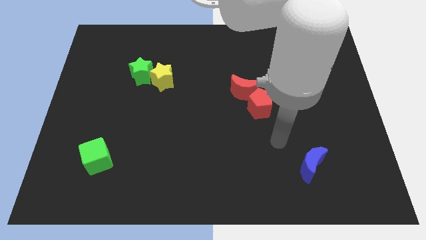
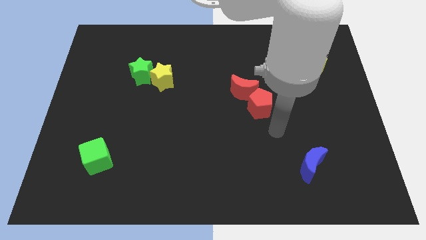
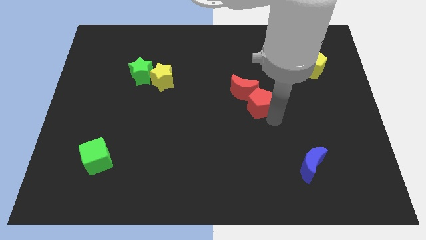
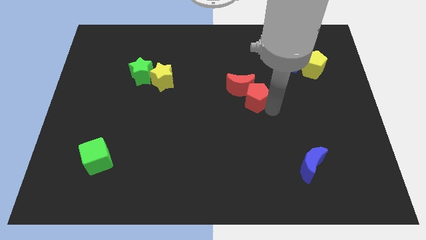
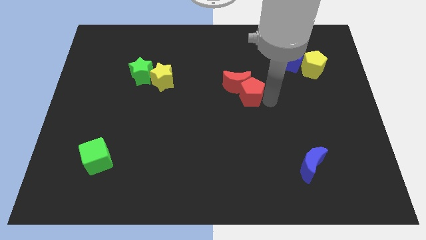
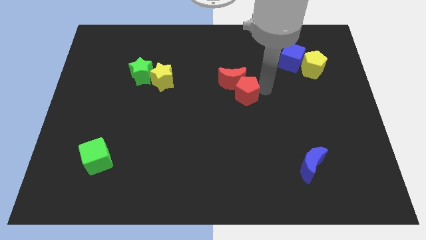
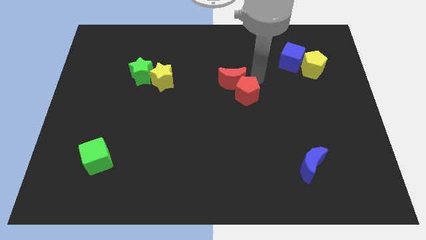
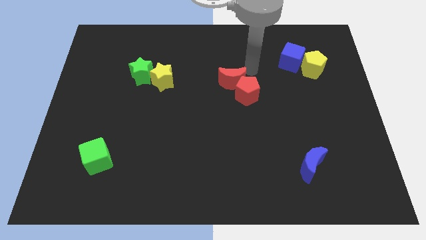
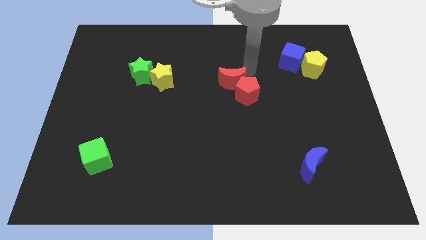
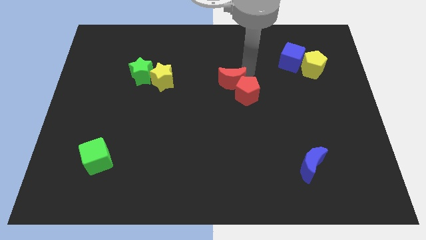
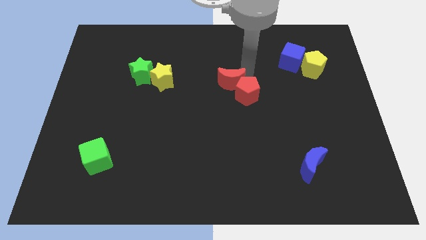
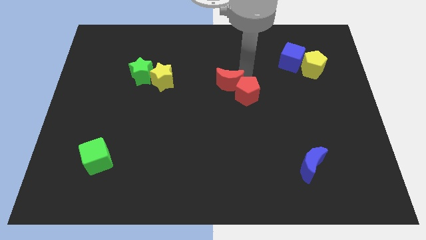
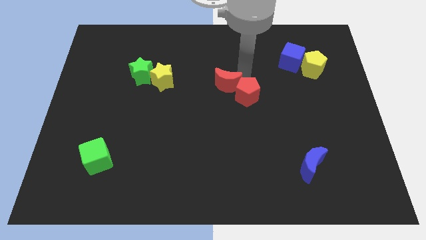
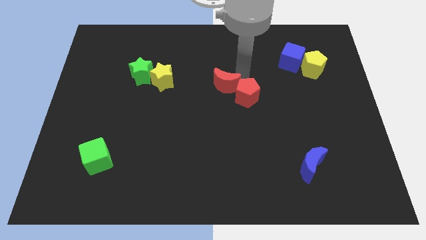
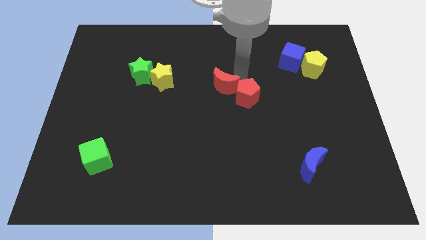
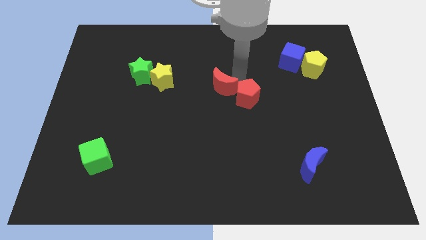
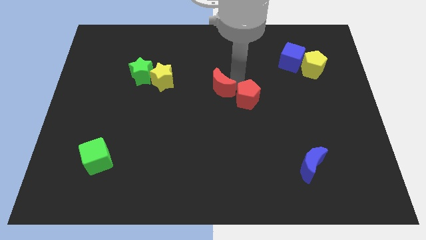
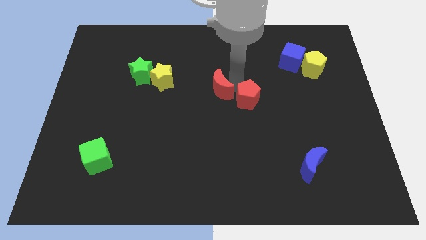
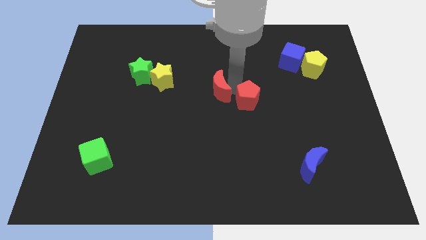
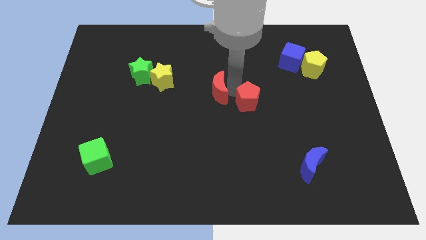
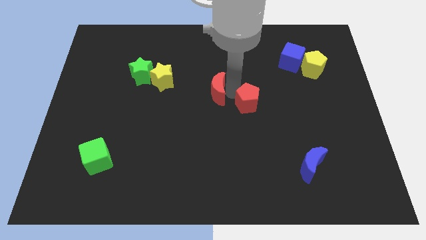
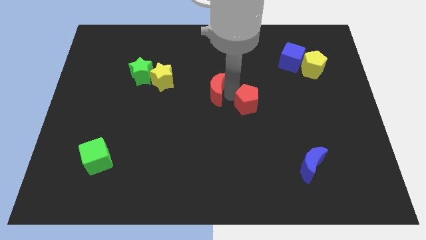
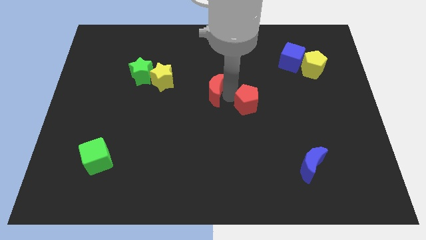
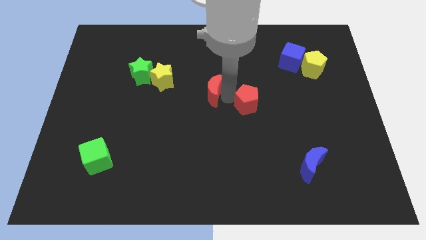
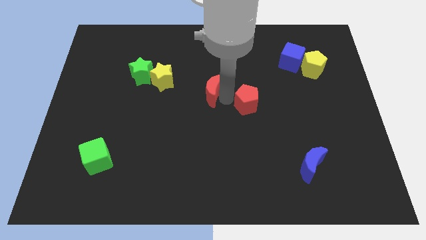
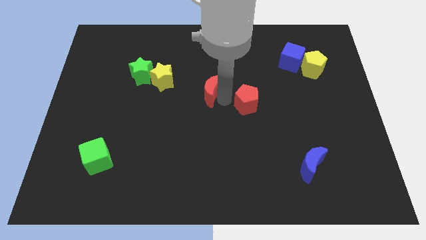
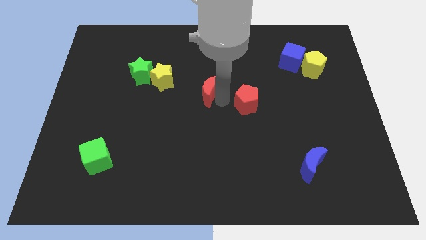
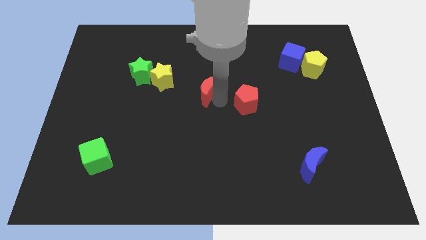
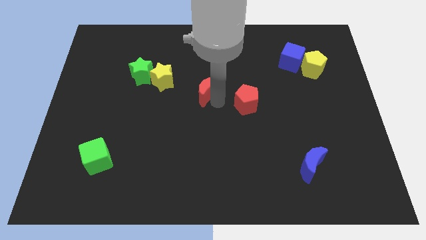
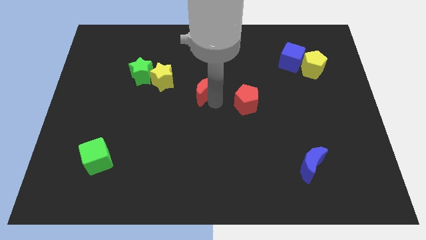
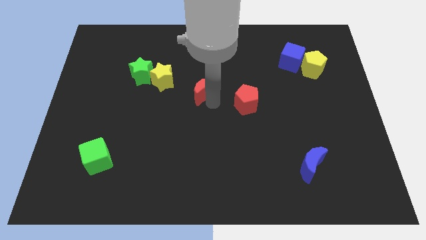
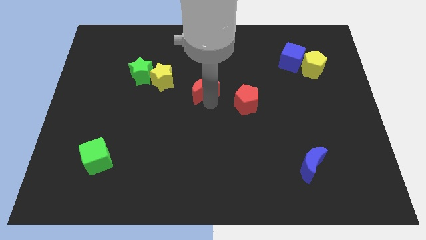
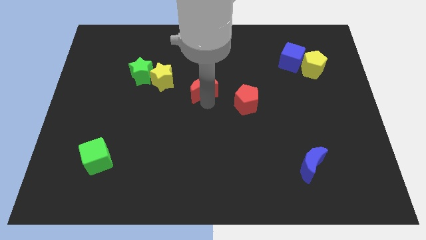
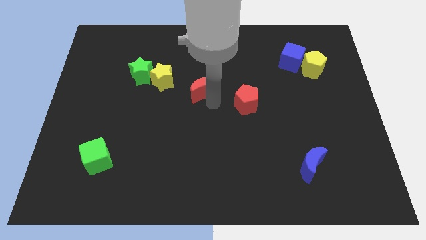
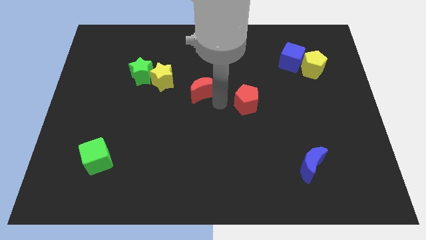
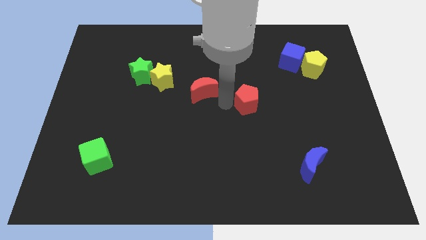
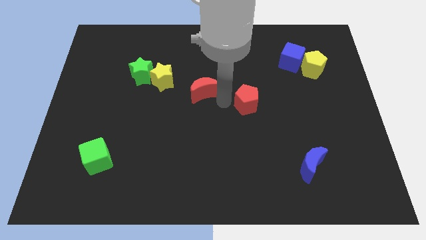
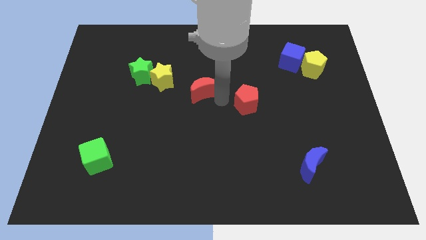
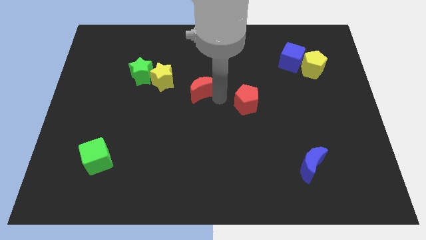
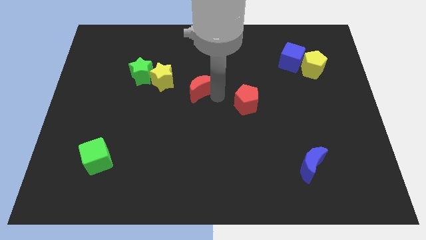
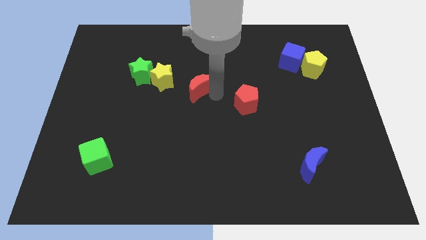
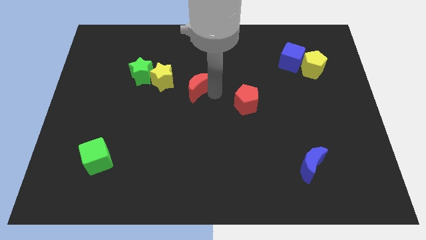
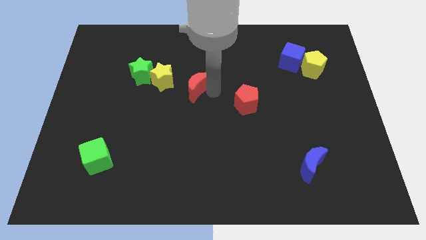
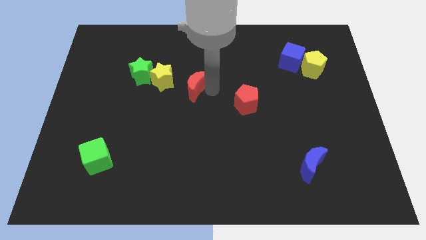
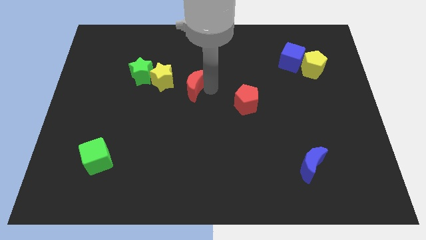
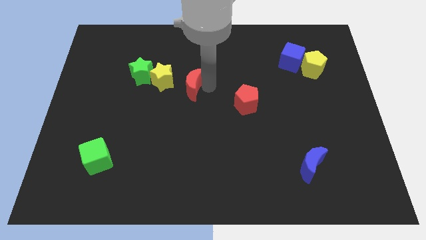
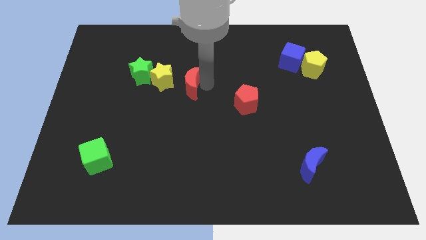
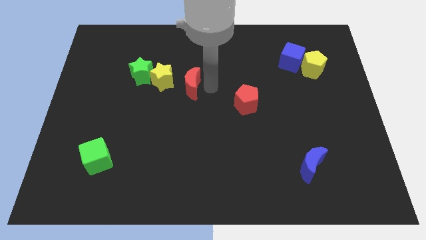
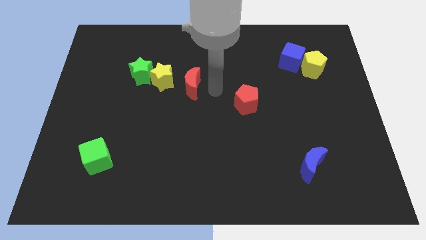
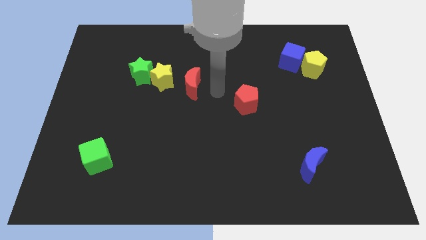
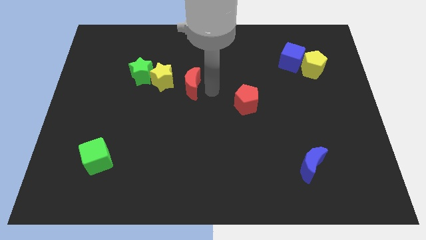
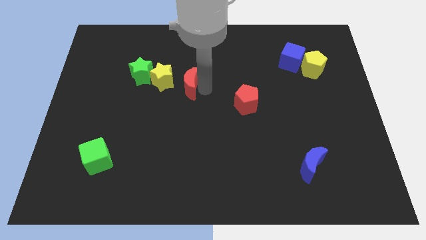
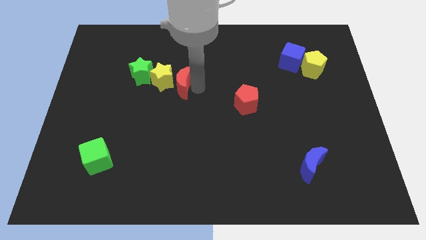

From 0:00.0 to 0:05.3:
put the red moon next to the yellow star

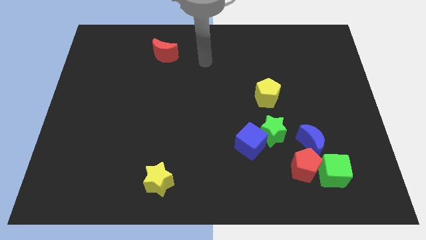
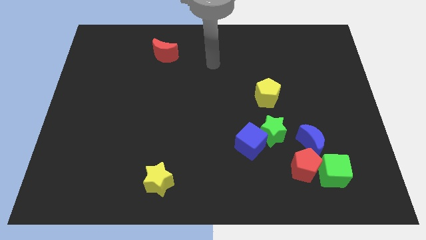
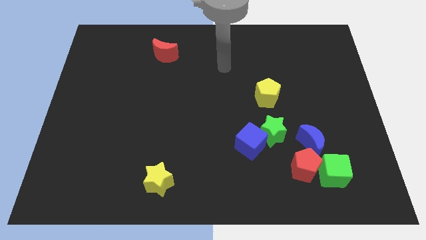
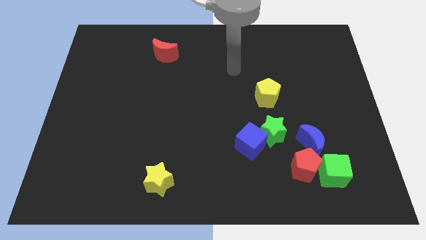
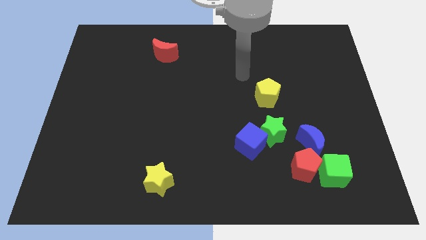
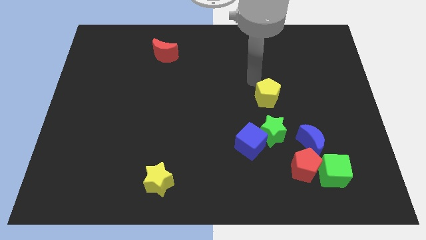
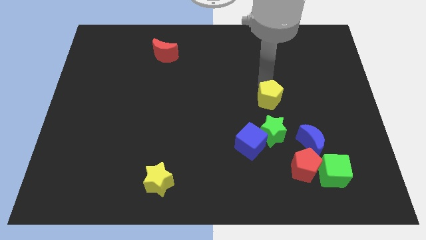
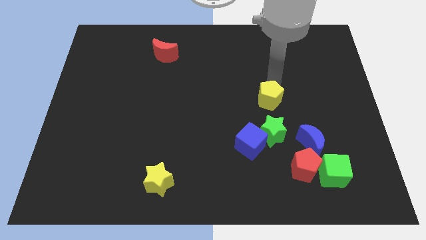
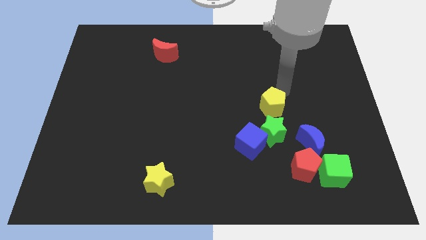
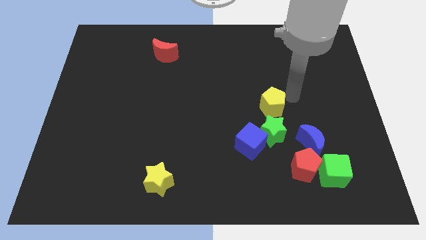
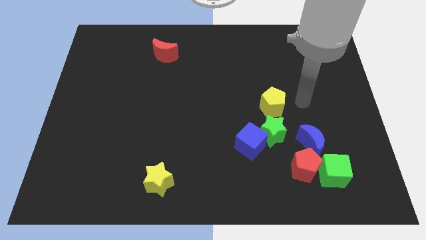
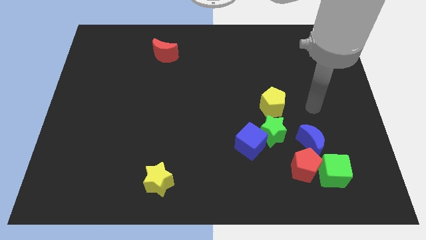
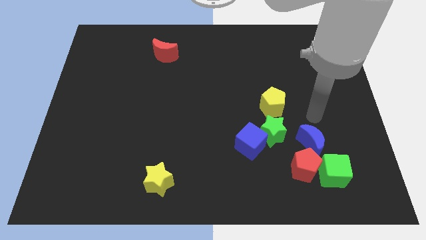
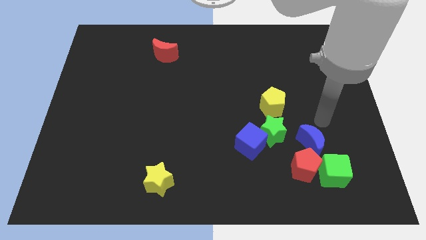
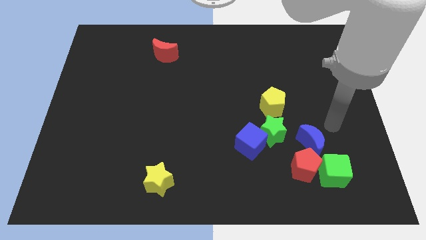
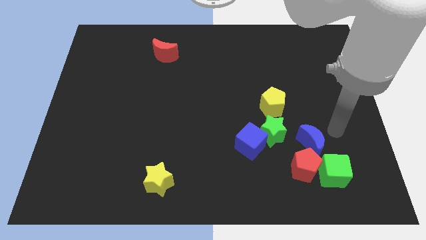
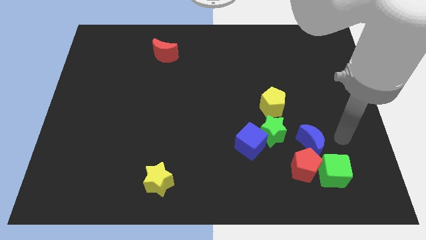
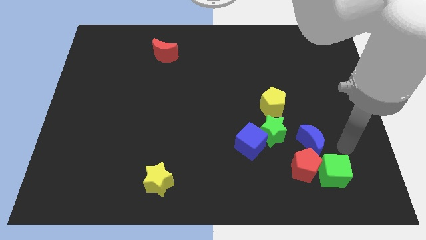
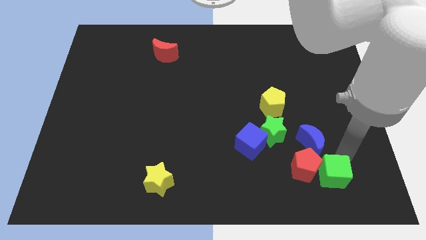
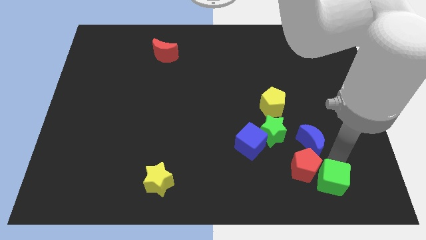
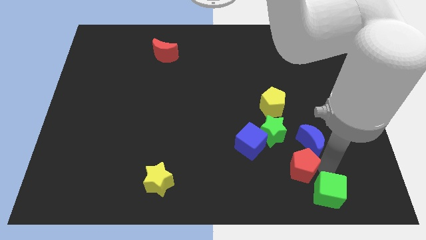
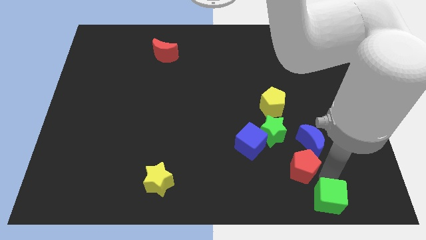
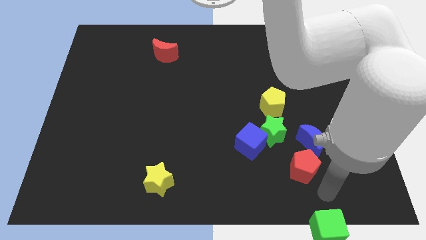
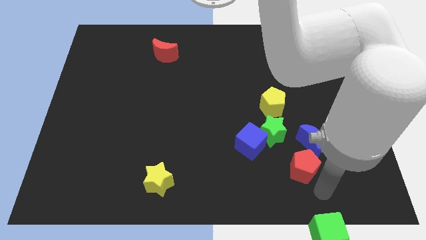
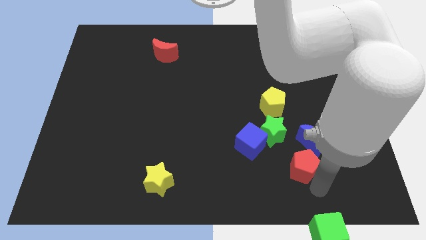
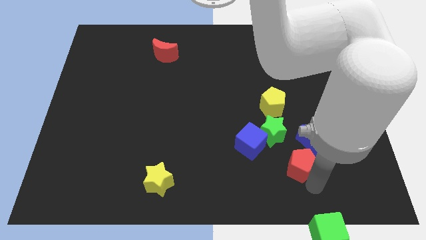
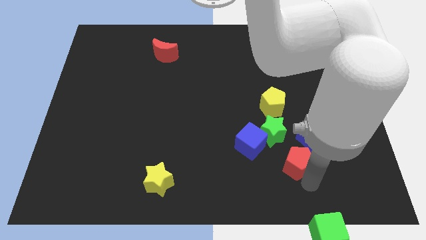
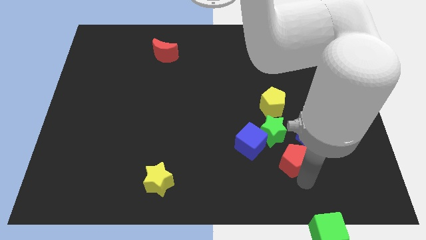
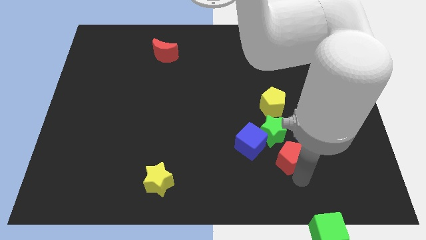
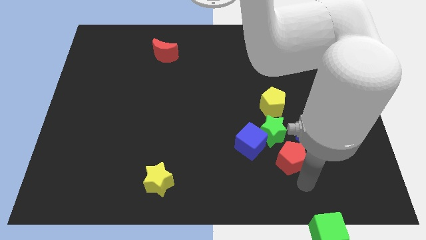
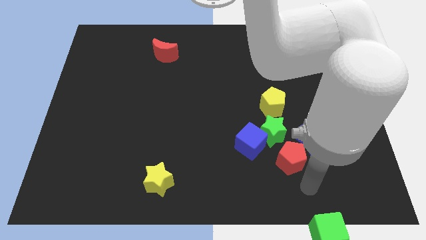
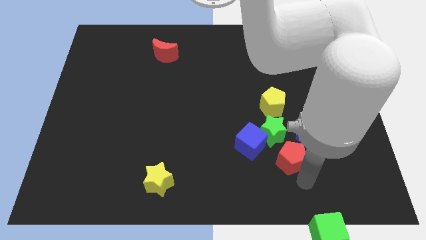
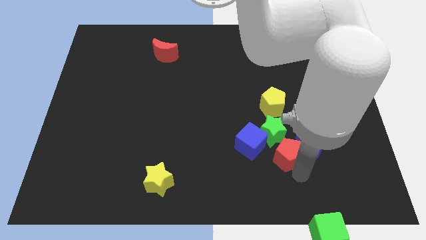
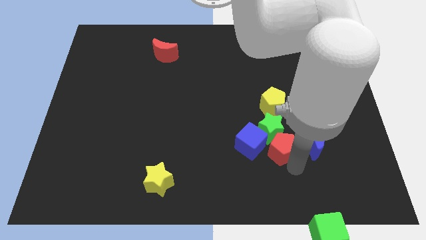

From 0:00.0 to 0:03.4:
move the red pentagon to the green star
